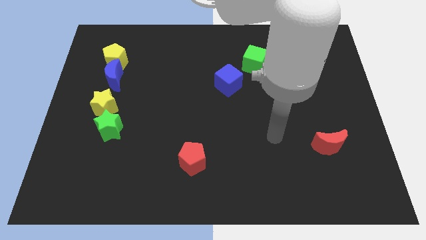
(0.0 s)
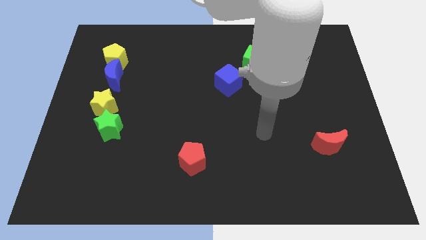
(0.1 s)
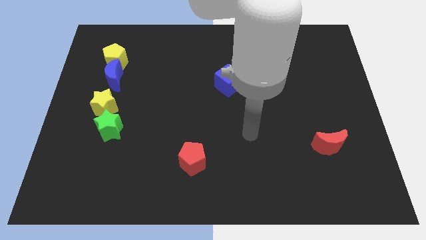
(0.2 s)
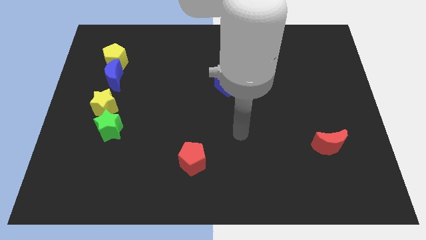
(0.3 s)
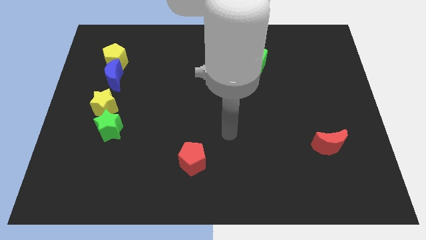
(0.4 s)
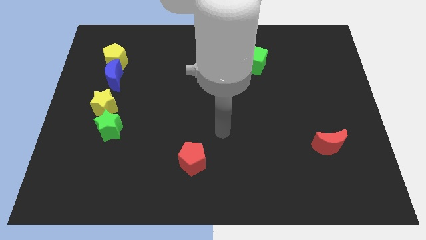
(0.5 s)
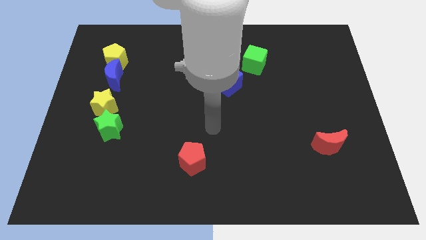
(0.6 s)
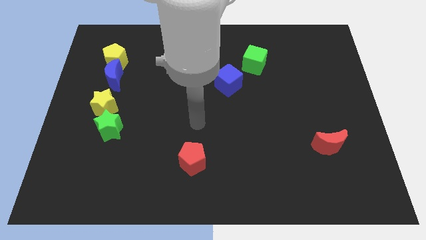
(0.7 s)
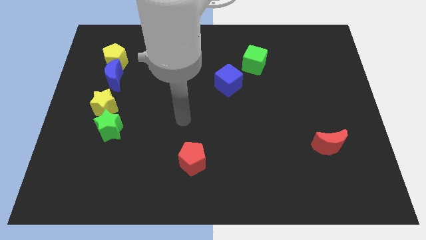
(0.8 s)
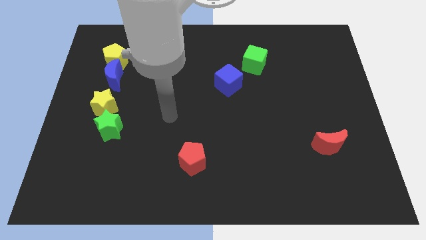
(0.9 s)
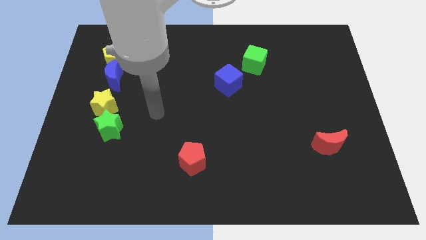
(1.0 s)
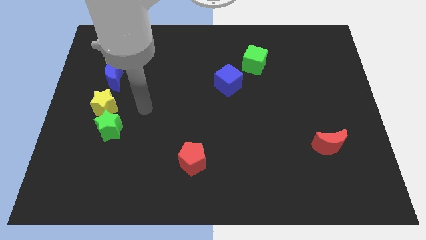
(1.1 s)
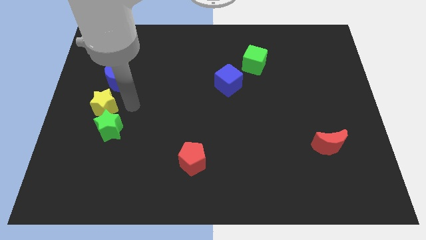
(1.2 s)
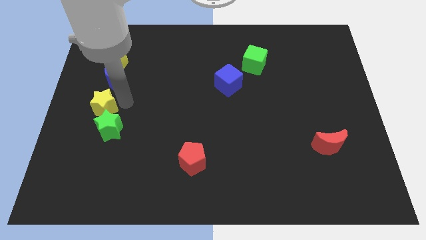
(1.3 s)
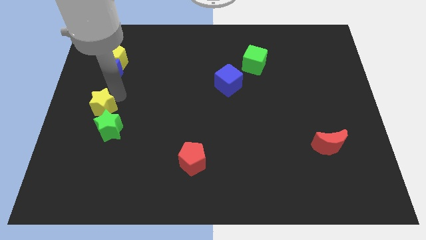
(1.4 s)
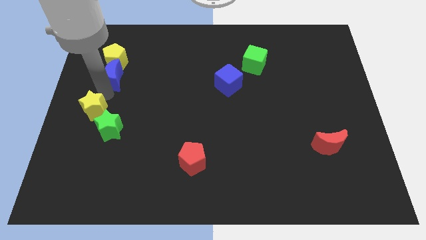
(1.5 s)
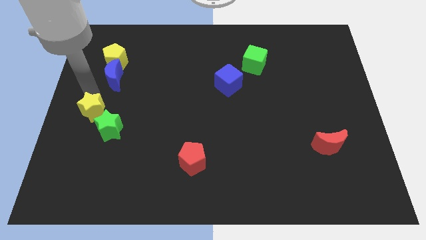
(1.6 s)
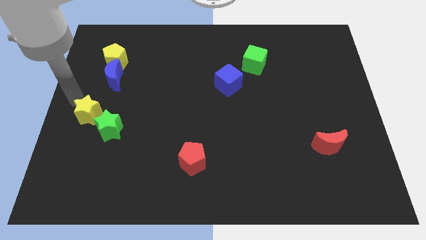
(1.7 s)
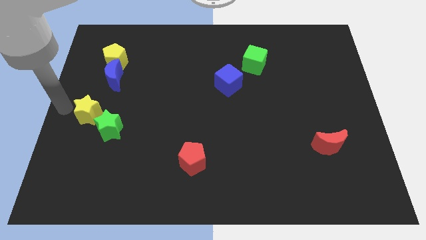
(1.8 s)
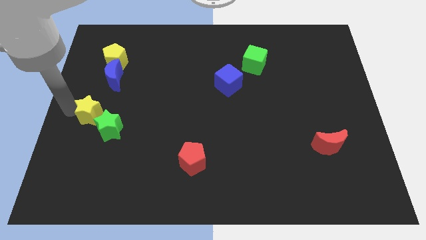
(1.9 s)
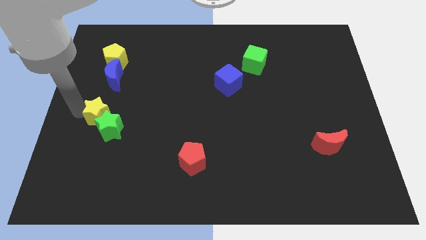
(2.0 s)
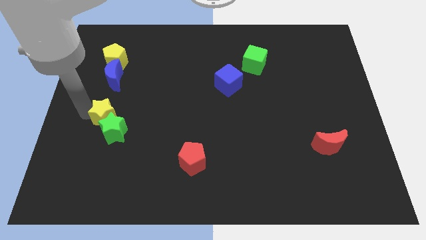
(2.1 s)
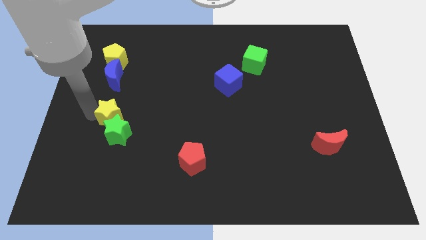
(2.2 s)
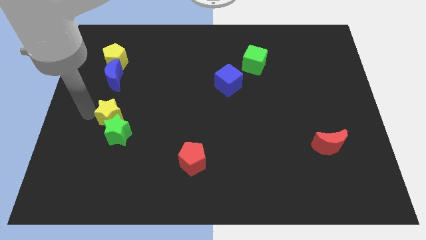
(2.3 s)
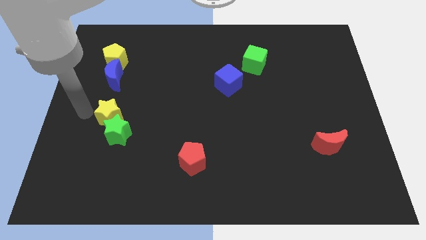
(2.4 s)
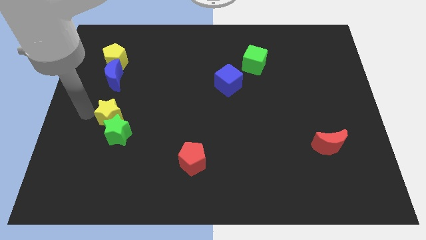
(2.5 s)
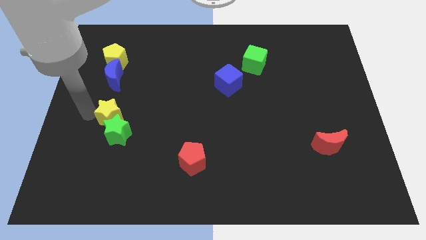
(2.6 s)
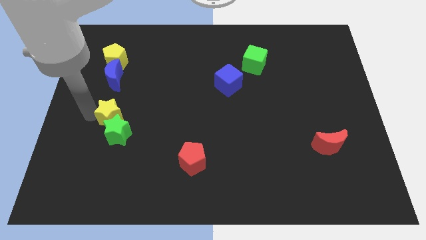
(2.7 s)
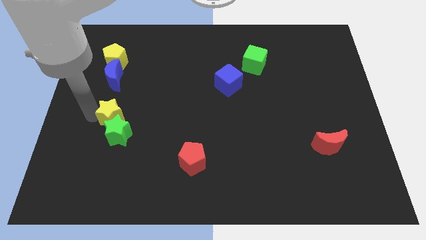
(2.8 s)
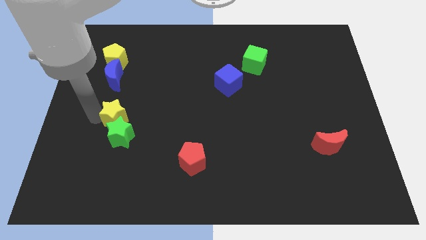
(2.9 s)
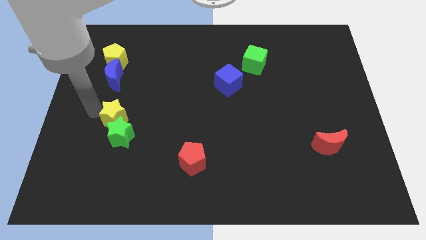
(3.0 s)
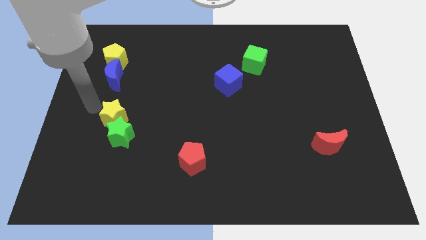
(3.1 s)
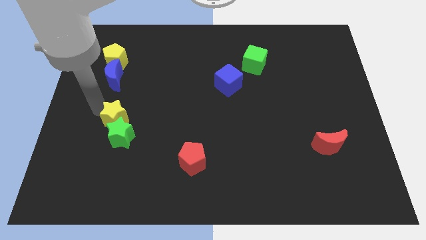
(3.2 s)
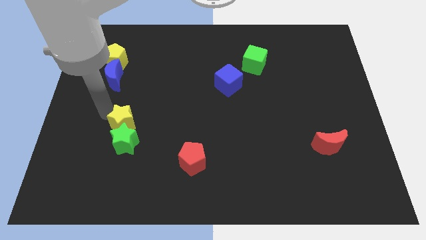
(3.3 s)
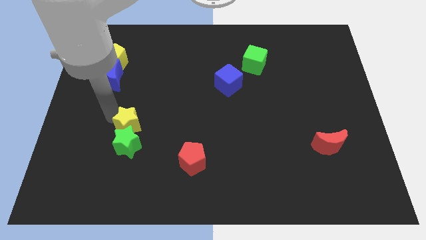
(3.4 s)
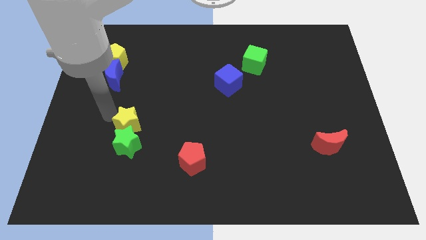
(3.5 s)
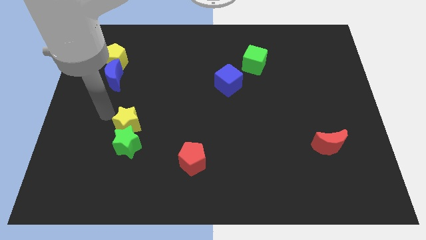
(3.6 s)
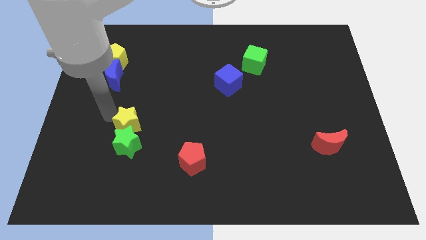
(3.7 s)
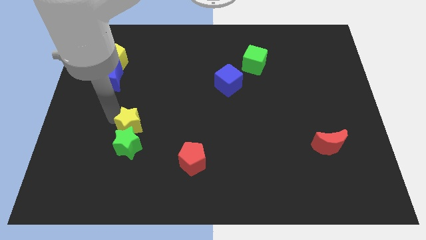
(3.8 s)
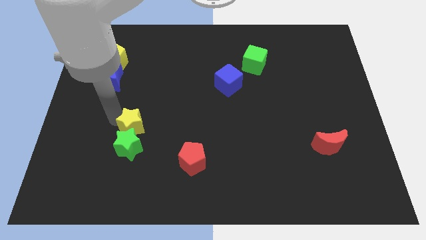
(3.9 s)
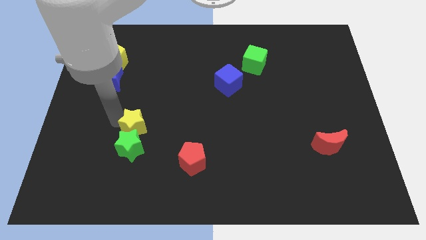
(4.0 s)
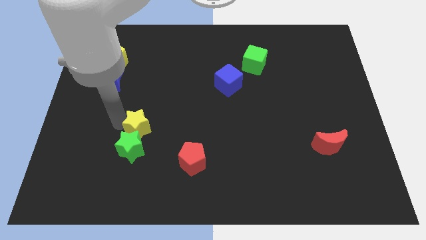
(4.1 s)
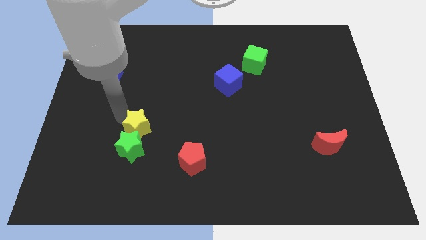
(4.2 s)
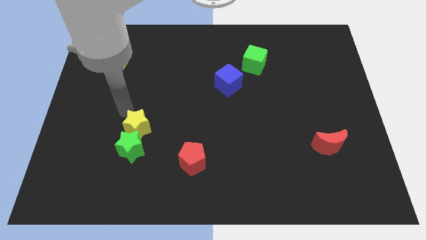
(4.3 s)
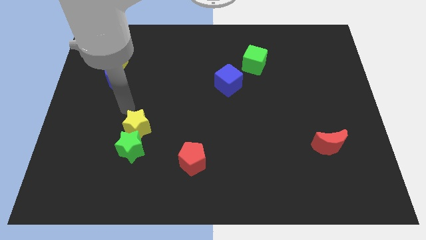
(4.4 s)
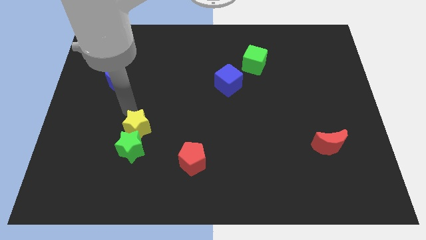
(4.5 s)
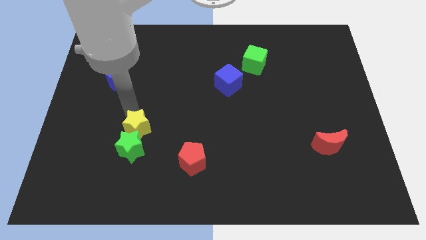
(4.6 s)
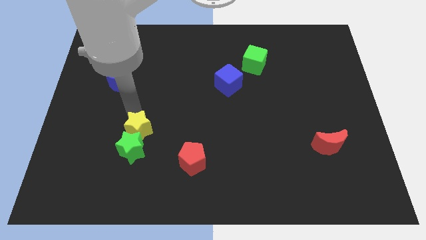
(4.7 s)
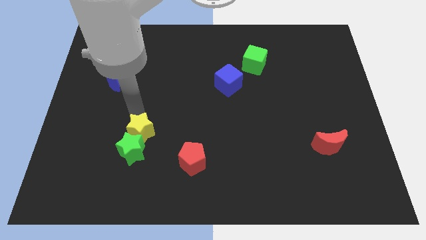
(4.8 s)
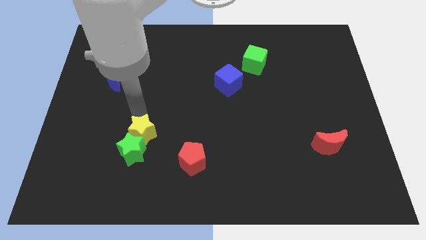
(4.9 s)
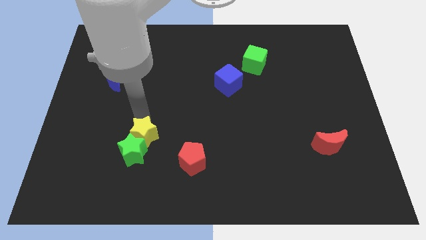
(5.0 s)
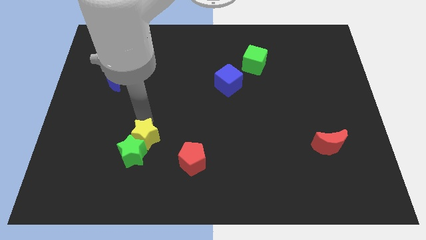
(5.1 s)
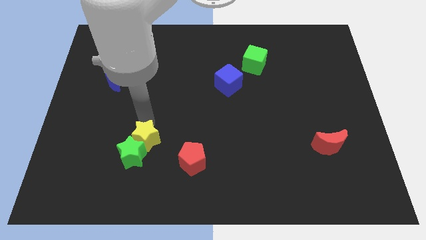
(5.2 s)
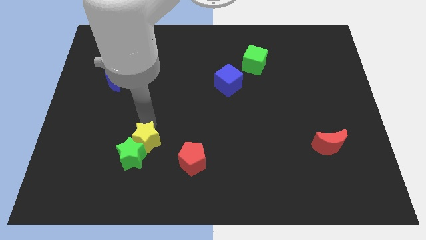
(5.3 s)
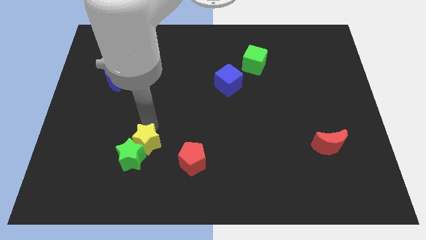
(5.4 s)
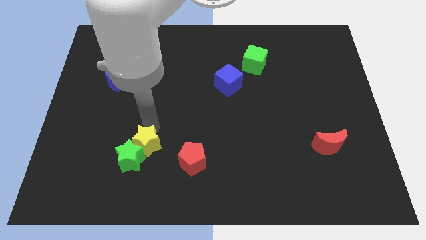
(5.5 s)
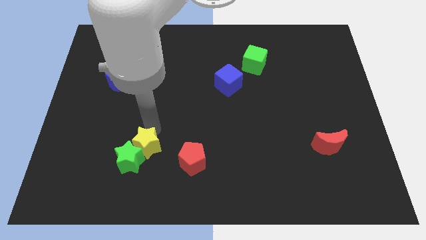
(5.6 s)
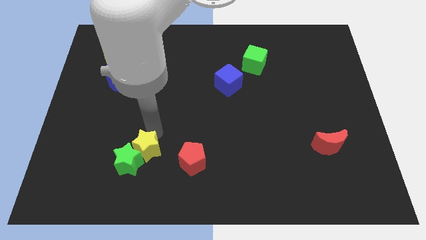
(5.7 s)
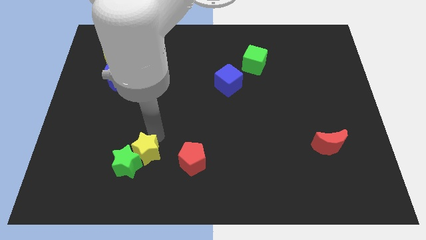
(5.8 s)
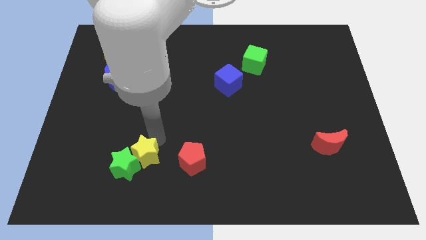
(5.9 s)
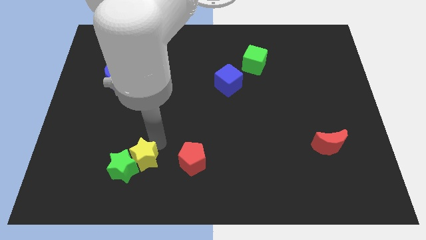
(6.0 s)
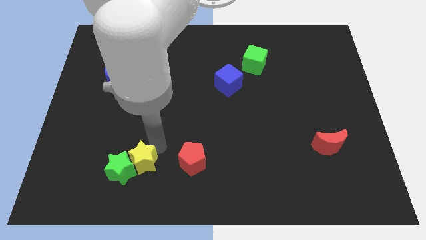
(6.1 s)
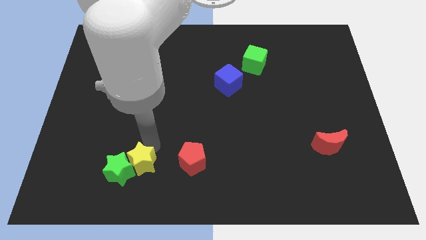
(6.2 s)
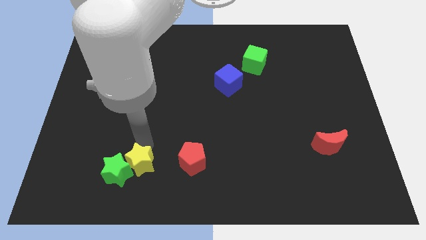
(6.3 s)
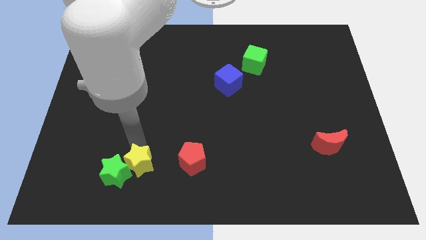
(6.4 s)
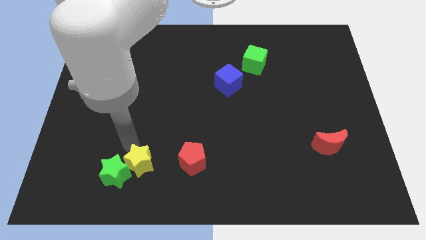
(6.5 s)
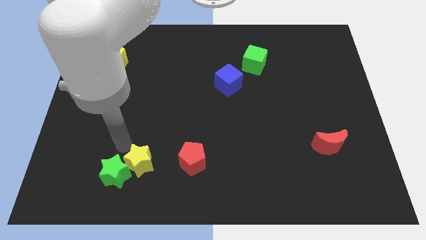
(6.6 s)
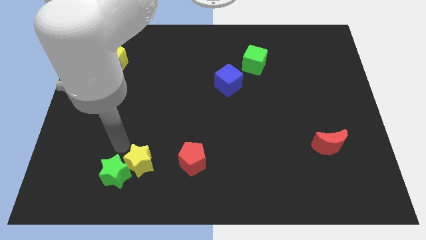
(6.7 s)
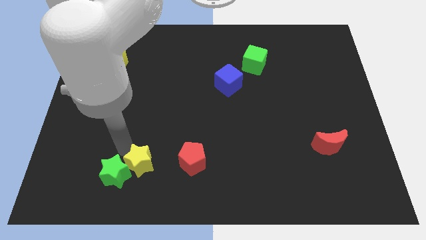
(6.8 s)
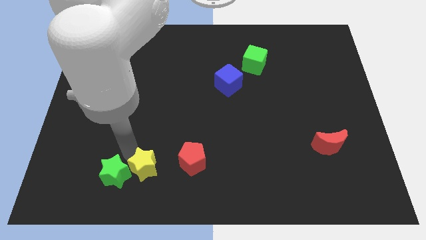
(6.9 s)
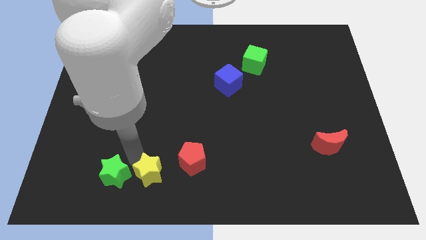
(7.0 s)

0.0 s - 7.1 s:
slide the yellow star diagonally down and to the left of the red pentagon
